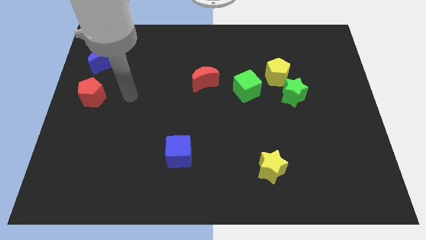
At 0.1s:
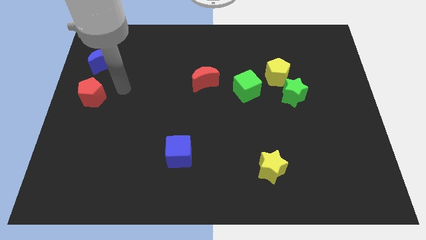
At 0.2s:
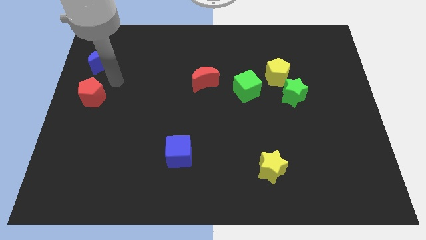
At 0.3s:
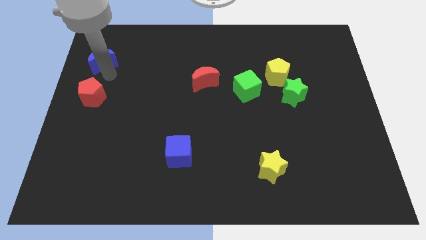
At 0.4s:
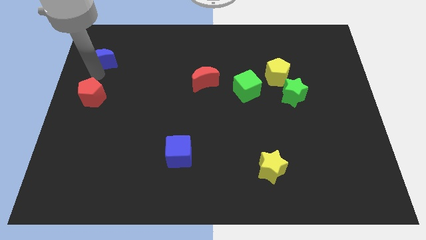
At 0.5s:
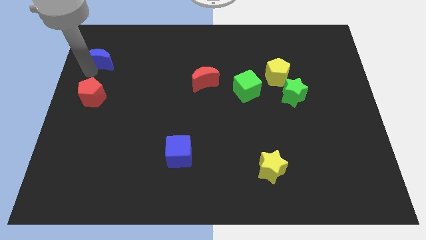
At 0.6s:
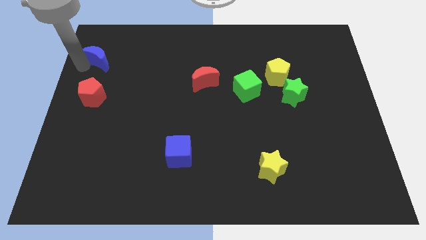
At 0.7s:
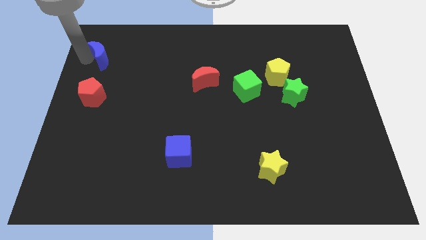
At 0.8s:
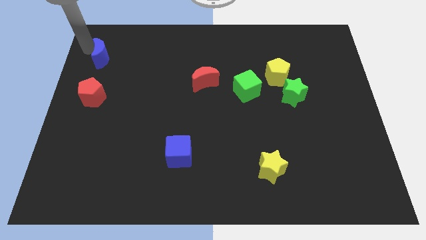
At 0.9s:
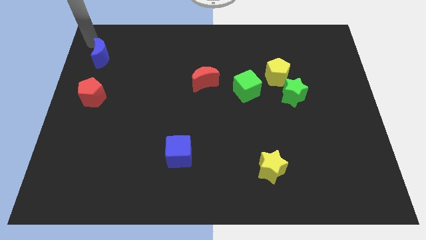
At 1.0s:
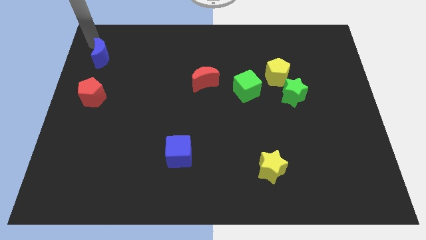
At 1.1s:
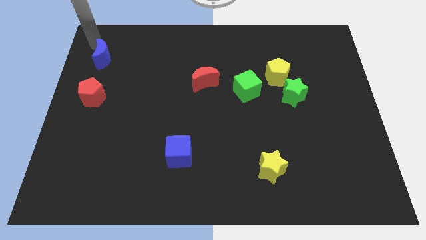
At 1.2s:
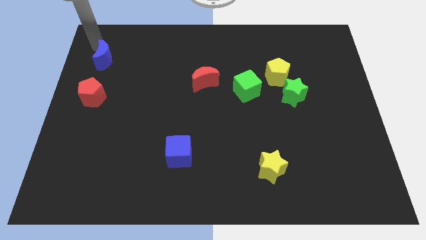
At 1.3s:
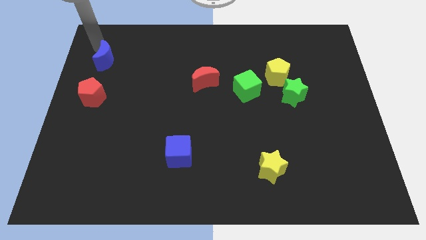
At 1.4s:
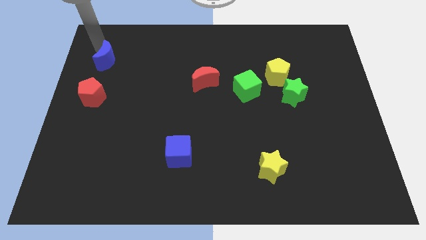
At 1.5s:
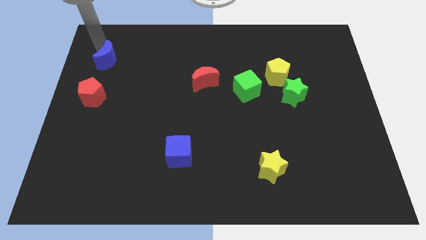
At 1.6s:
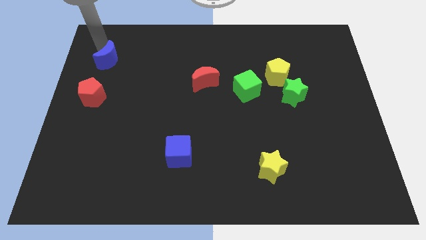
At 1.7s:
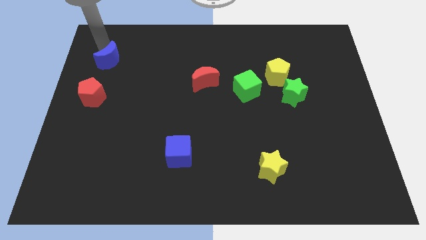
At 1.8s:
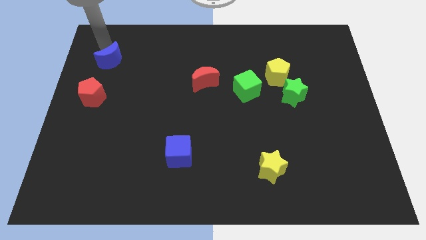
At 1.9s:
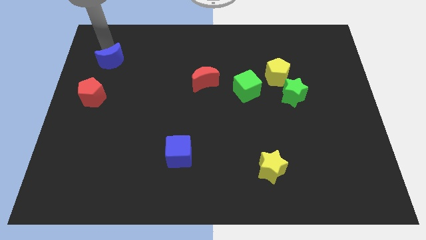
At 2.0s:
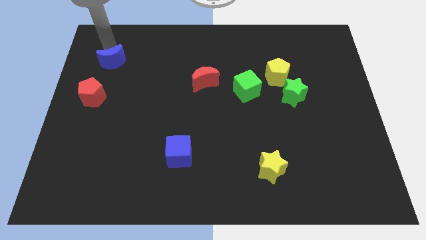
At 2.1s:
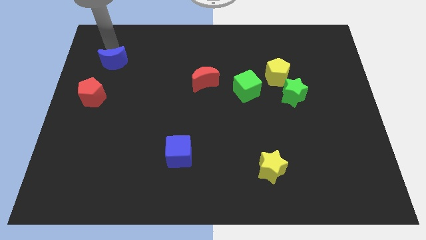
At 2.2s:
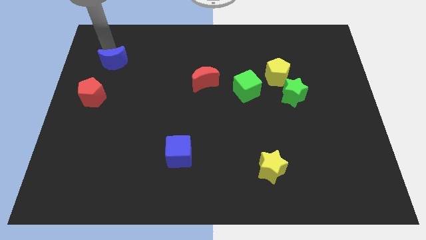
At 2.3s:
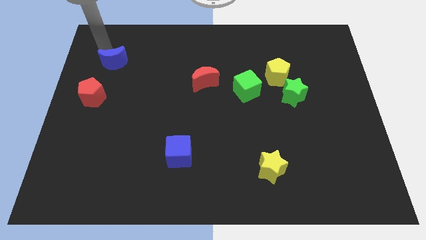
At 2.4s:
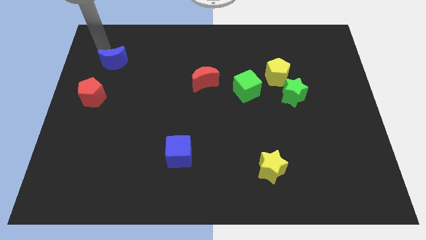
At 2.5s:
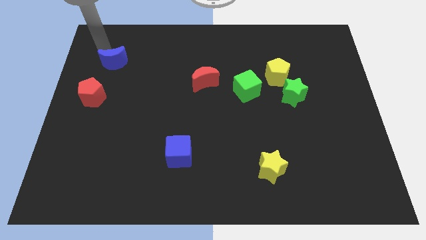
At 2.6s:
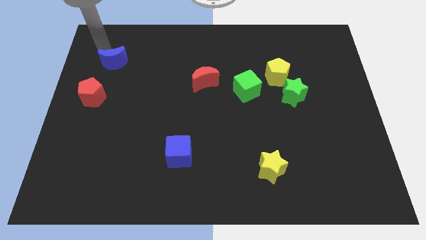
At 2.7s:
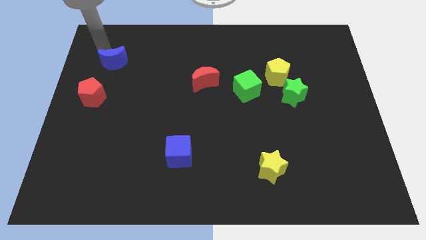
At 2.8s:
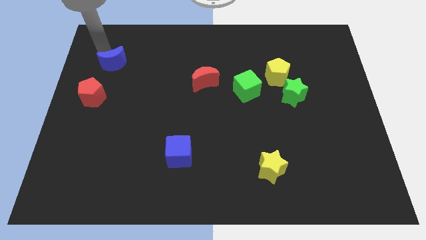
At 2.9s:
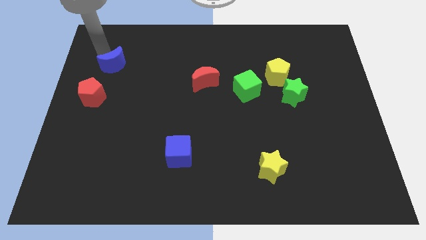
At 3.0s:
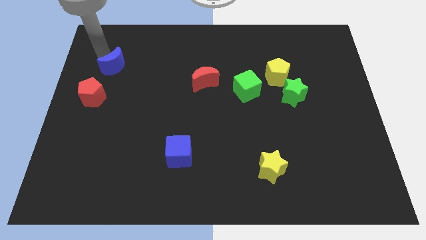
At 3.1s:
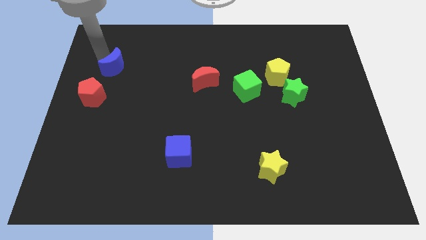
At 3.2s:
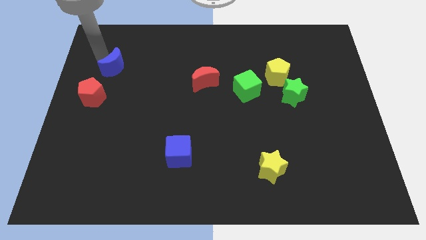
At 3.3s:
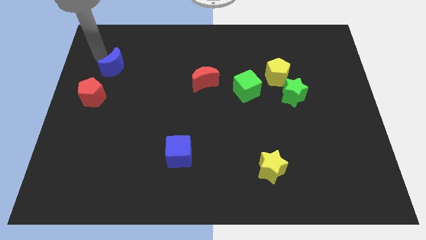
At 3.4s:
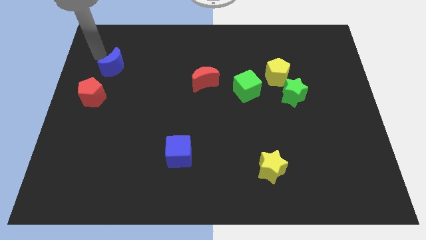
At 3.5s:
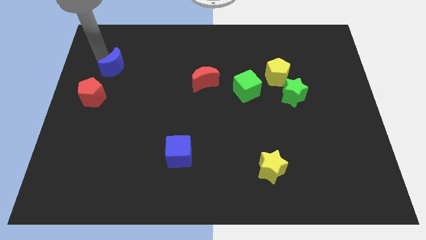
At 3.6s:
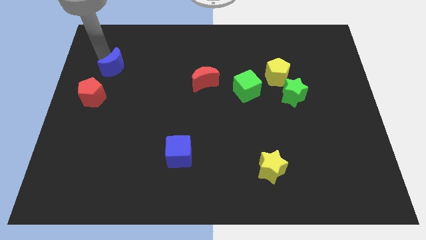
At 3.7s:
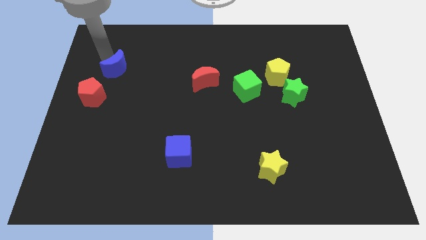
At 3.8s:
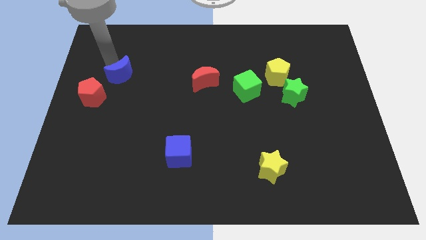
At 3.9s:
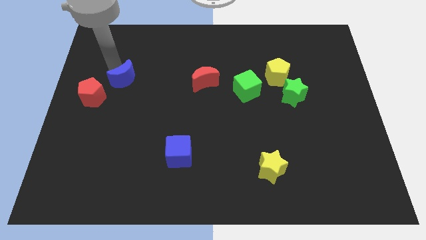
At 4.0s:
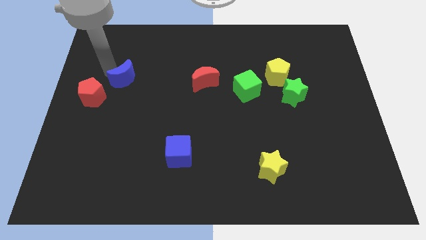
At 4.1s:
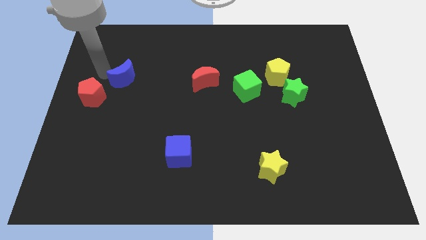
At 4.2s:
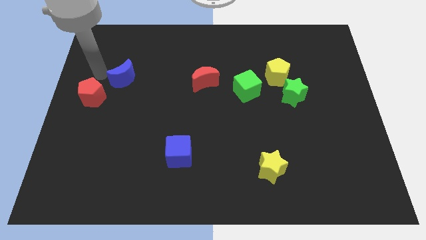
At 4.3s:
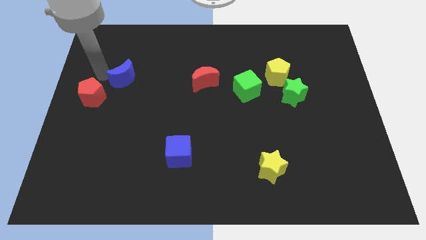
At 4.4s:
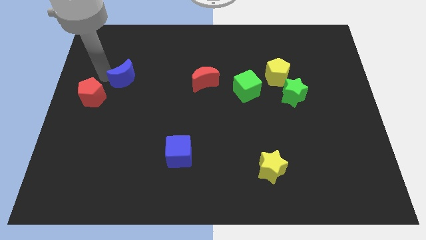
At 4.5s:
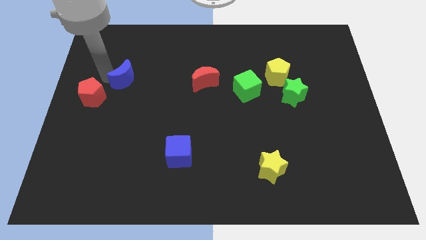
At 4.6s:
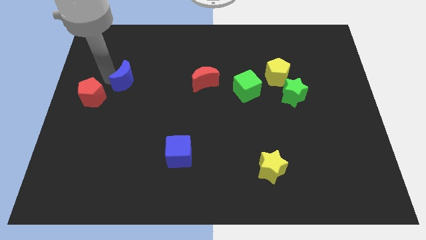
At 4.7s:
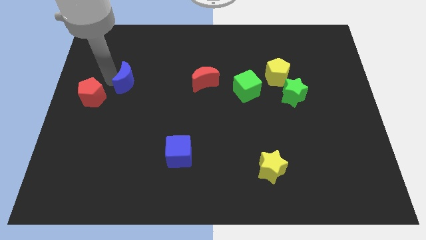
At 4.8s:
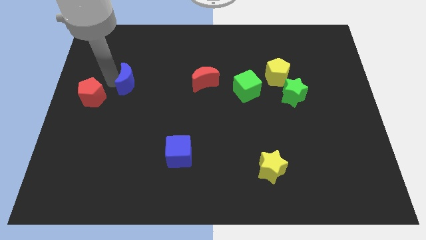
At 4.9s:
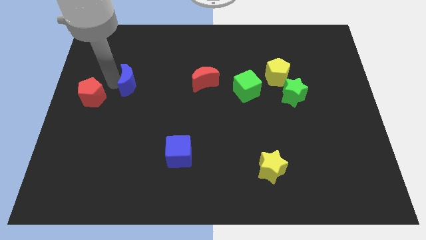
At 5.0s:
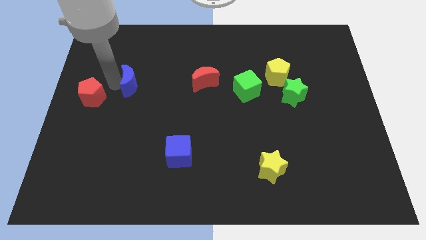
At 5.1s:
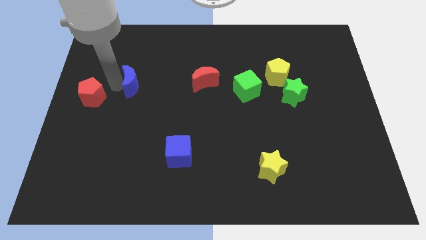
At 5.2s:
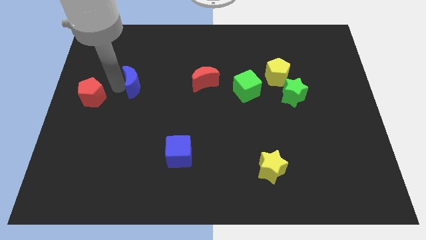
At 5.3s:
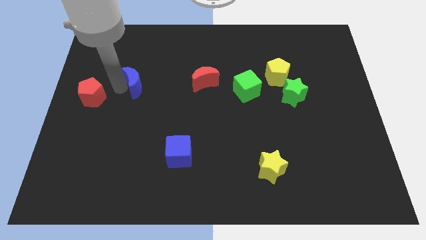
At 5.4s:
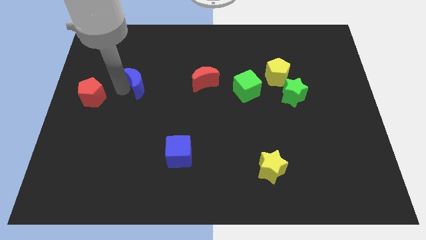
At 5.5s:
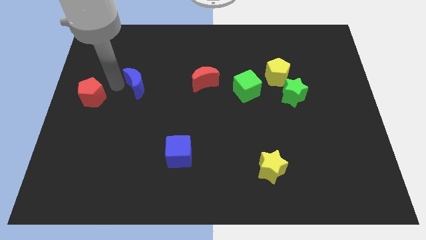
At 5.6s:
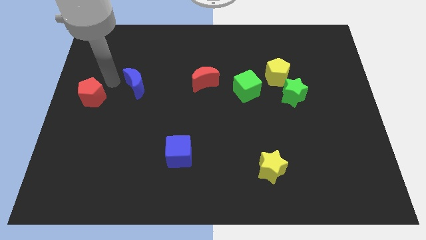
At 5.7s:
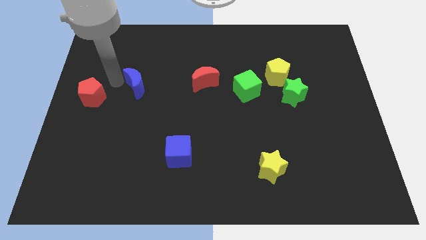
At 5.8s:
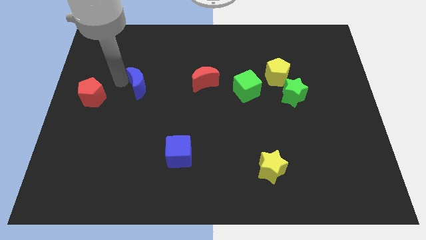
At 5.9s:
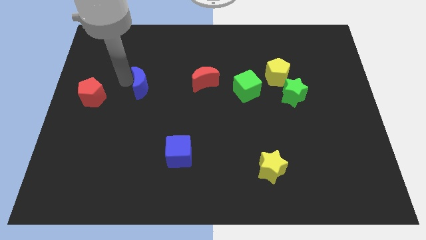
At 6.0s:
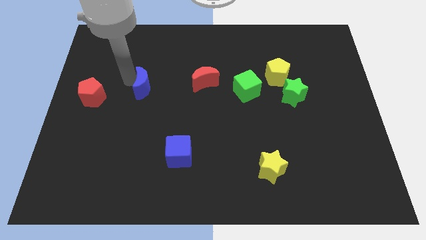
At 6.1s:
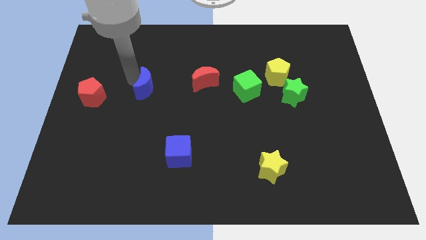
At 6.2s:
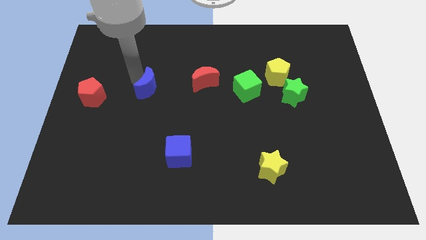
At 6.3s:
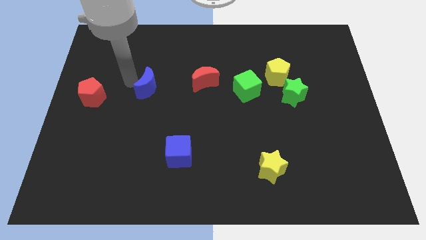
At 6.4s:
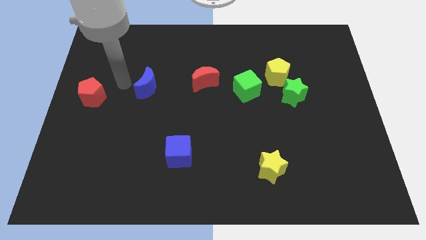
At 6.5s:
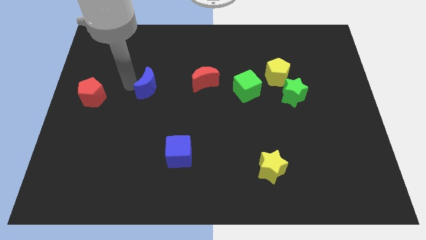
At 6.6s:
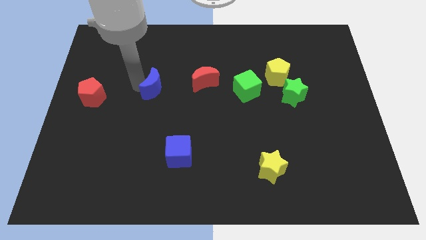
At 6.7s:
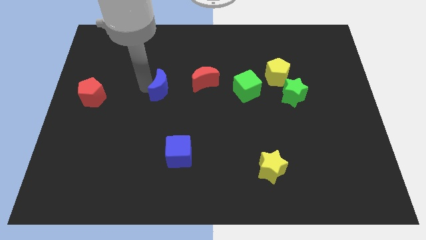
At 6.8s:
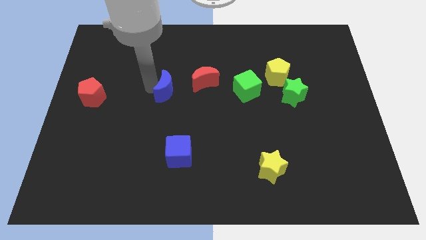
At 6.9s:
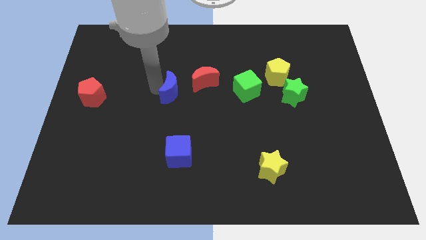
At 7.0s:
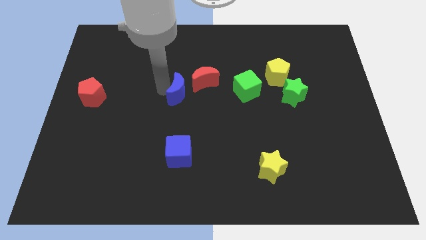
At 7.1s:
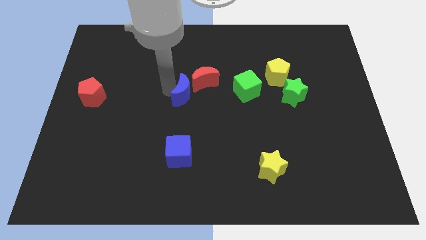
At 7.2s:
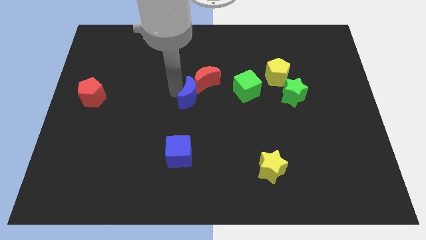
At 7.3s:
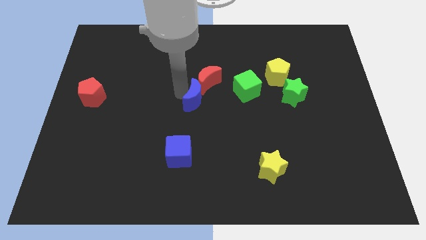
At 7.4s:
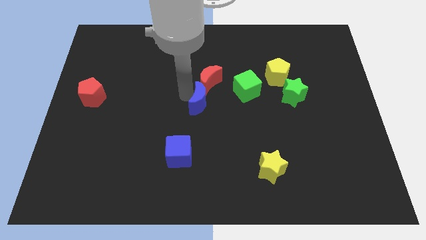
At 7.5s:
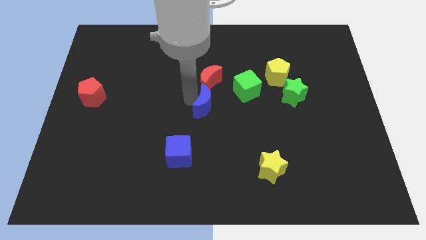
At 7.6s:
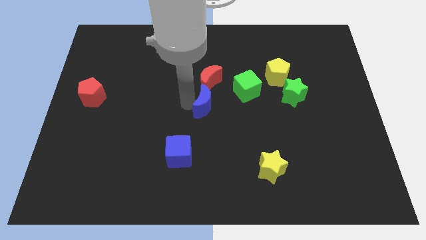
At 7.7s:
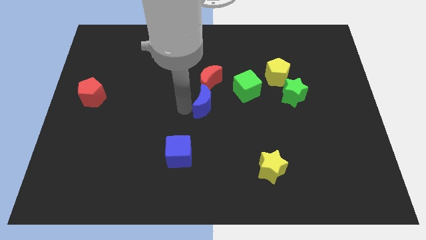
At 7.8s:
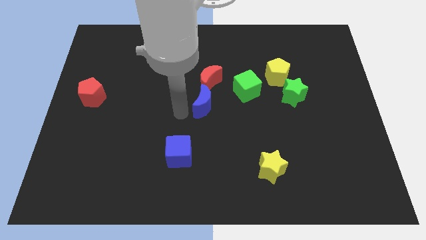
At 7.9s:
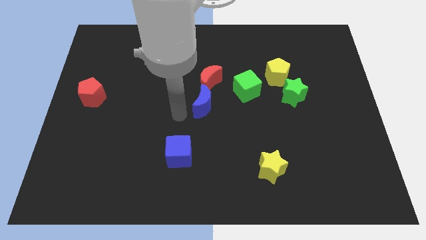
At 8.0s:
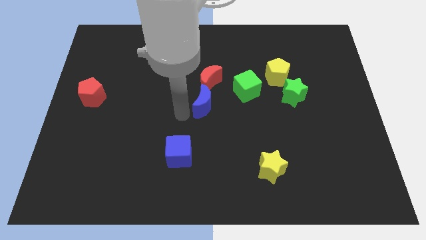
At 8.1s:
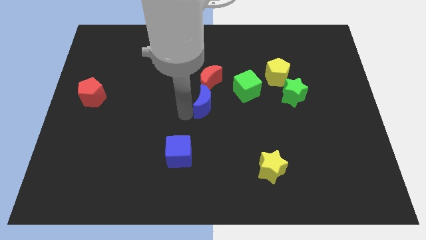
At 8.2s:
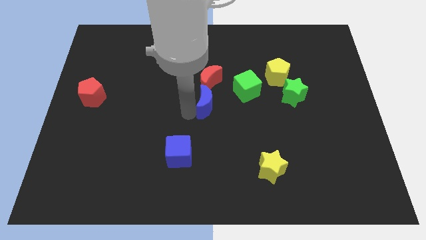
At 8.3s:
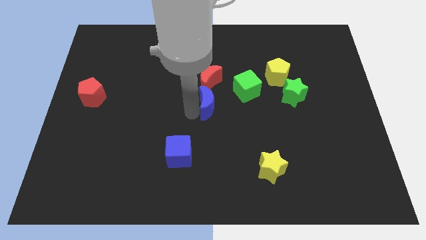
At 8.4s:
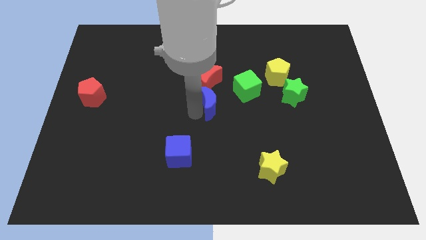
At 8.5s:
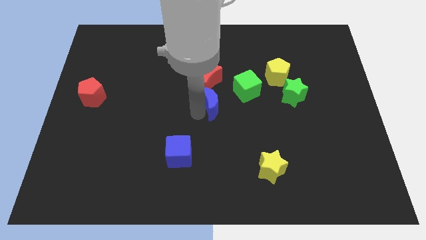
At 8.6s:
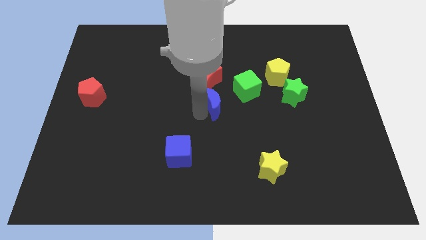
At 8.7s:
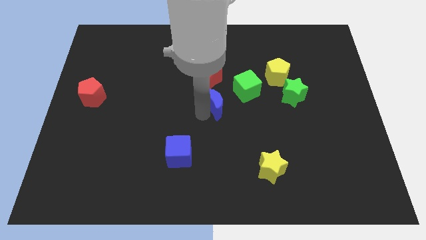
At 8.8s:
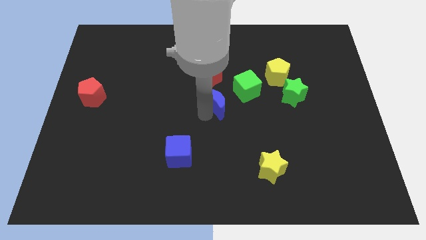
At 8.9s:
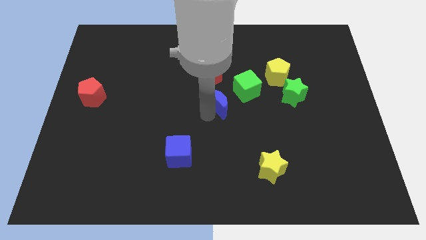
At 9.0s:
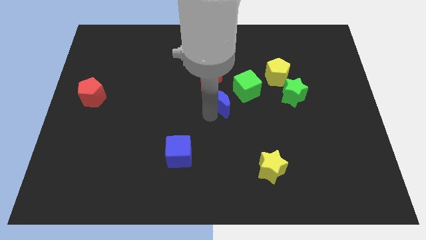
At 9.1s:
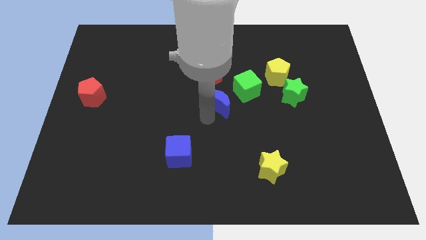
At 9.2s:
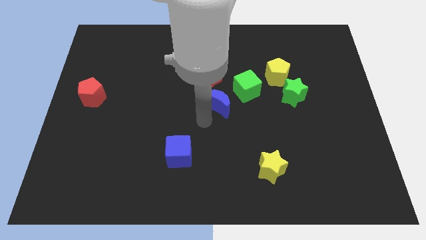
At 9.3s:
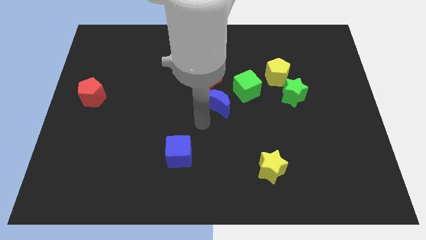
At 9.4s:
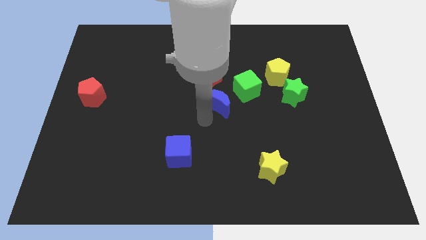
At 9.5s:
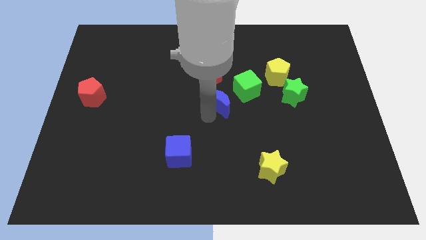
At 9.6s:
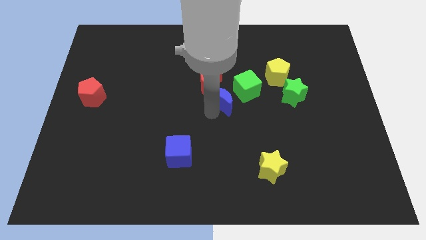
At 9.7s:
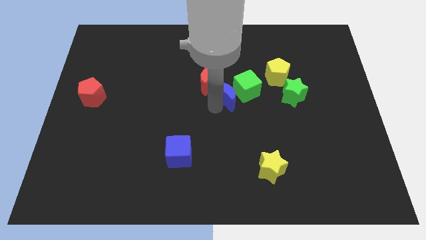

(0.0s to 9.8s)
slide the blue moon close to the green cube
